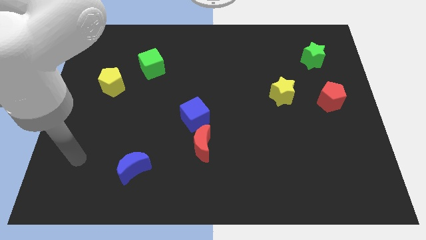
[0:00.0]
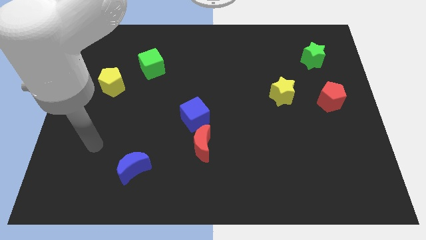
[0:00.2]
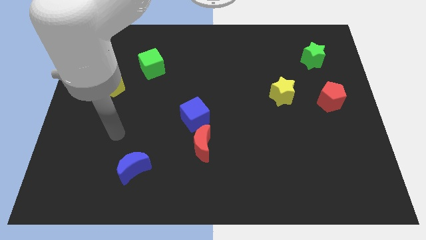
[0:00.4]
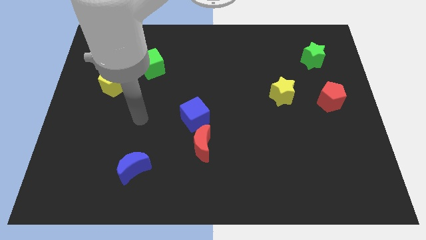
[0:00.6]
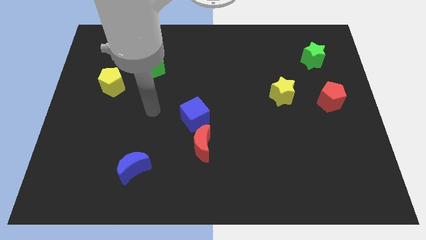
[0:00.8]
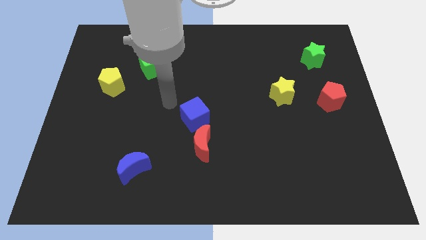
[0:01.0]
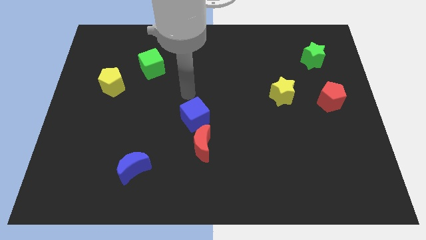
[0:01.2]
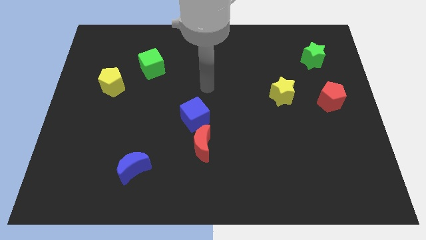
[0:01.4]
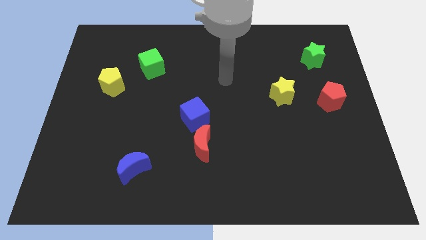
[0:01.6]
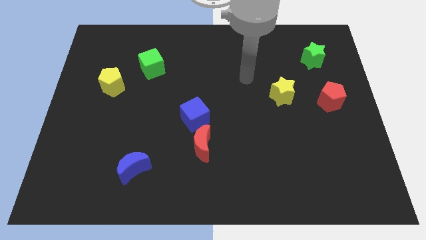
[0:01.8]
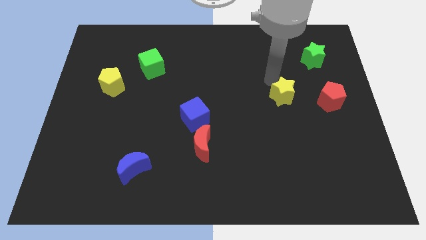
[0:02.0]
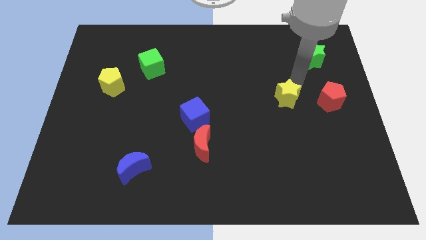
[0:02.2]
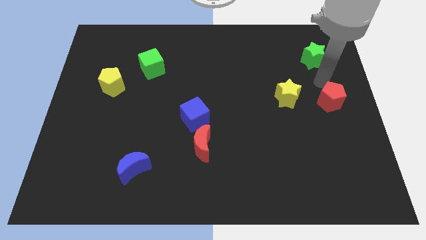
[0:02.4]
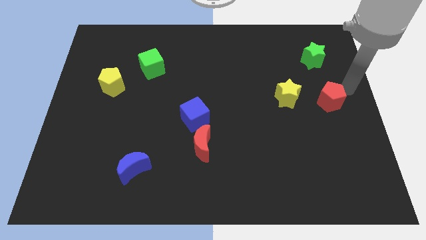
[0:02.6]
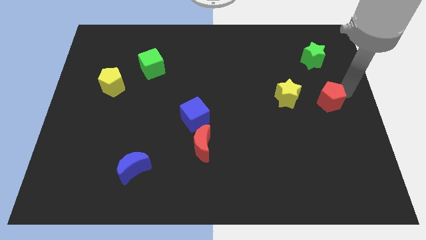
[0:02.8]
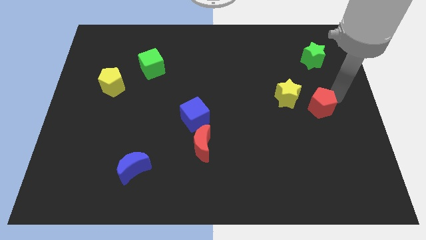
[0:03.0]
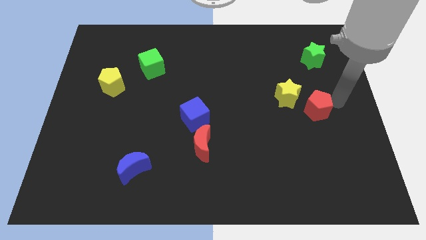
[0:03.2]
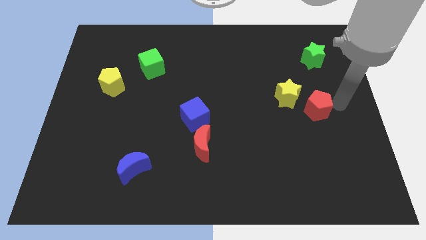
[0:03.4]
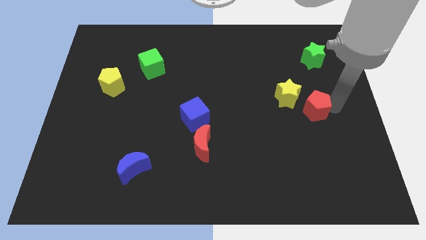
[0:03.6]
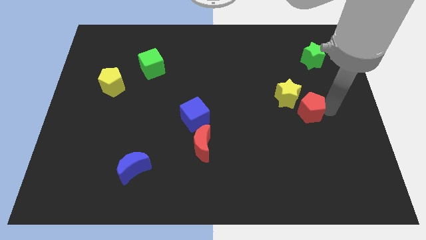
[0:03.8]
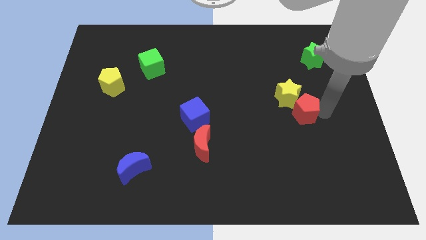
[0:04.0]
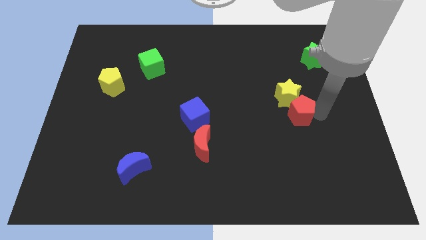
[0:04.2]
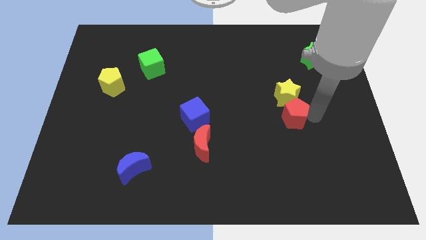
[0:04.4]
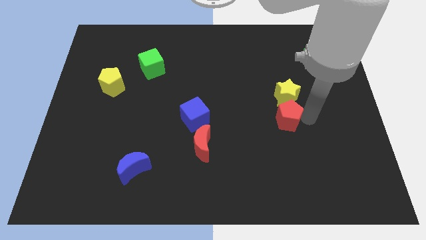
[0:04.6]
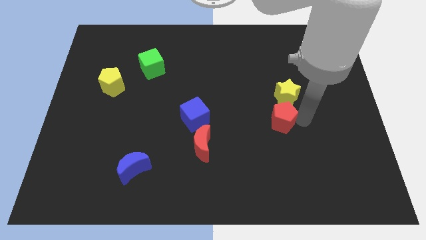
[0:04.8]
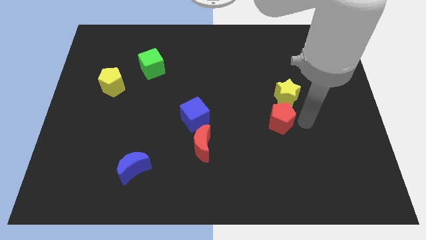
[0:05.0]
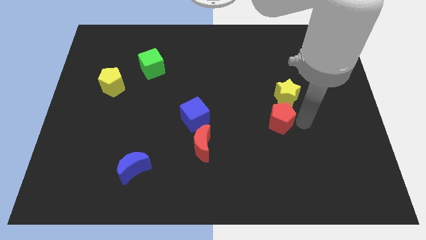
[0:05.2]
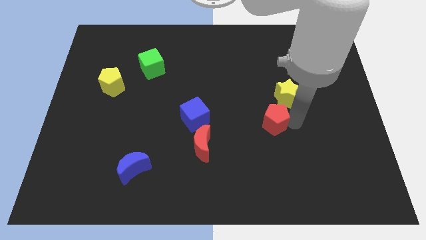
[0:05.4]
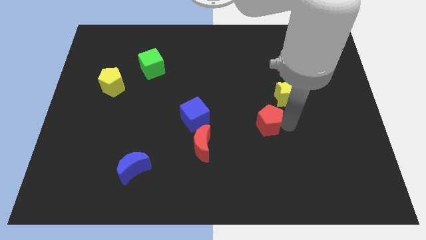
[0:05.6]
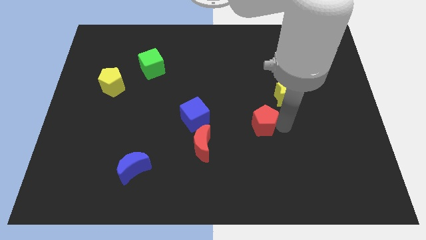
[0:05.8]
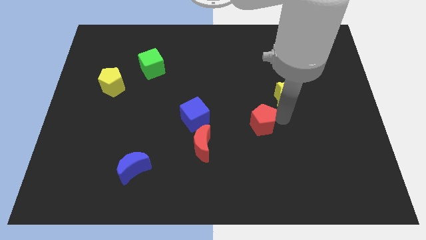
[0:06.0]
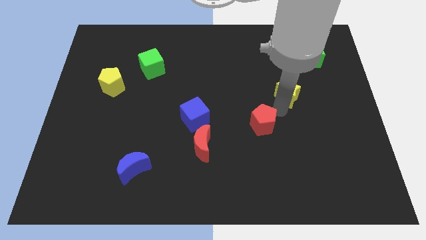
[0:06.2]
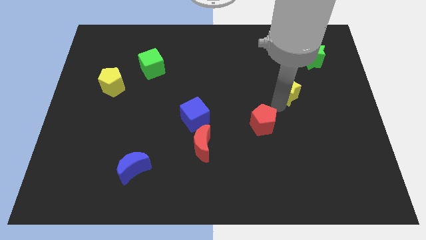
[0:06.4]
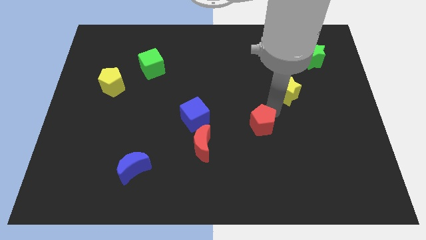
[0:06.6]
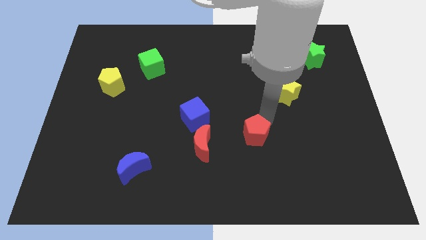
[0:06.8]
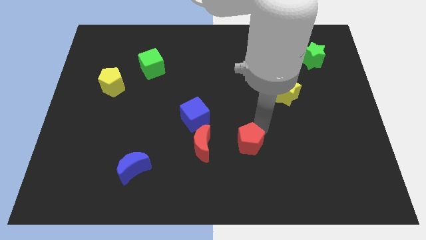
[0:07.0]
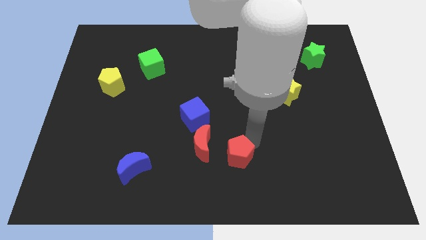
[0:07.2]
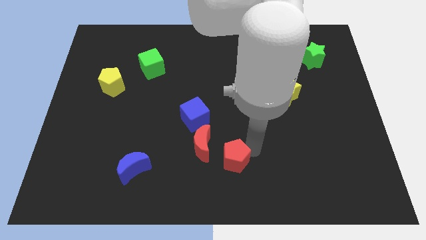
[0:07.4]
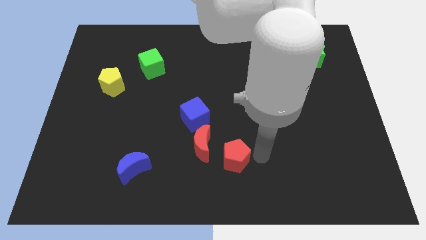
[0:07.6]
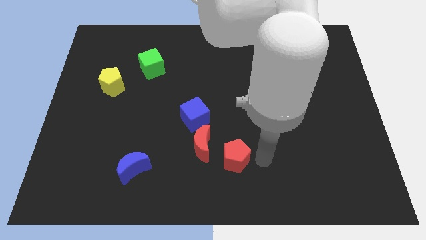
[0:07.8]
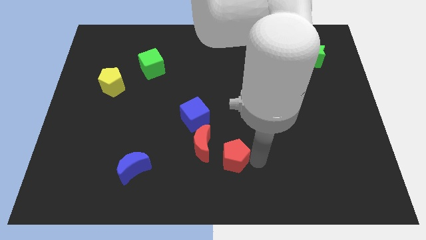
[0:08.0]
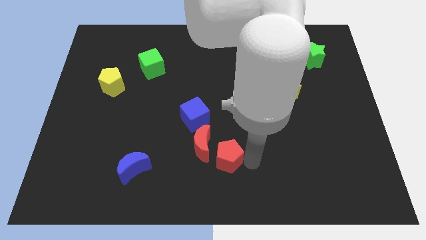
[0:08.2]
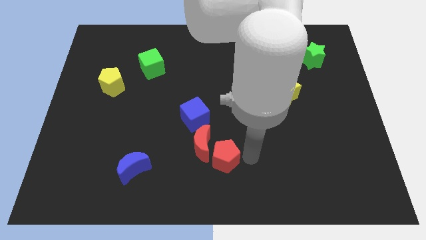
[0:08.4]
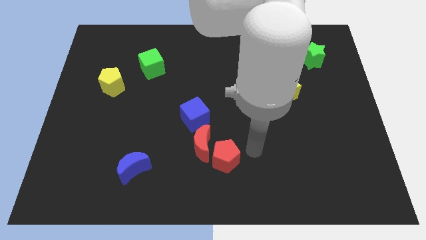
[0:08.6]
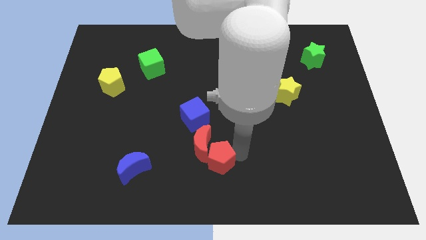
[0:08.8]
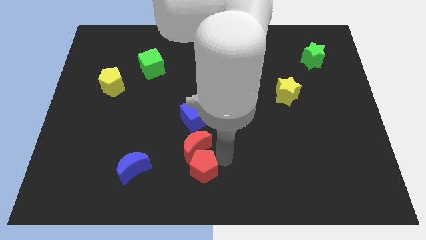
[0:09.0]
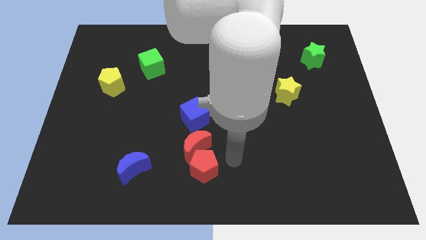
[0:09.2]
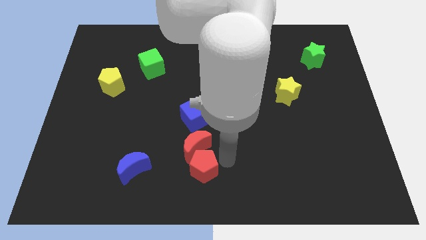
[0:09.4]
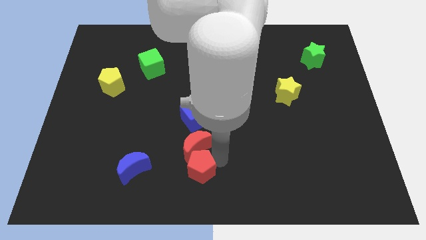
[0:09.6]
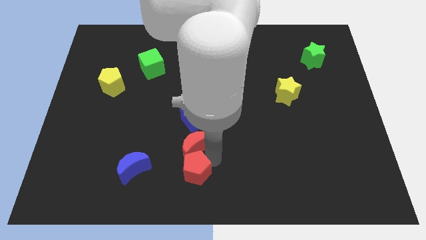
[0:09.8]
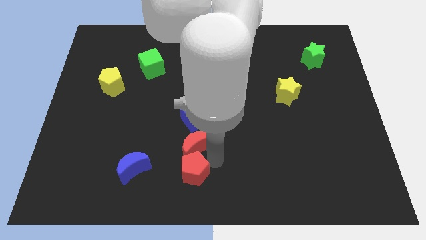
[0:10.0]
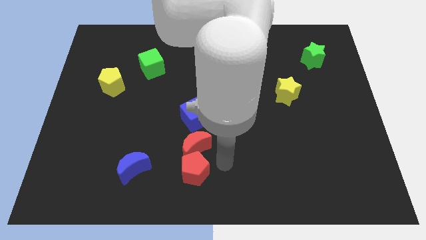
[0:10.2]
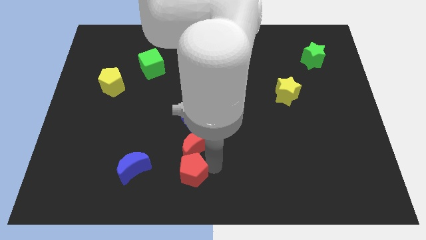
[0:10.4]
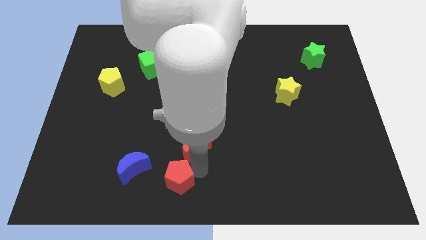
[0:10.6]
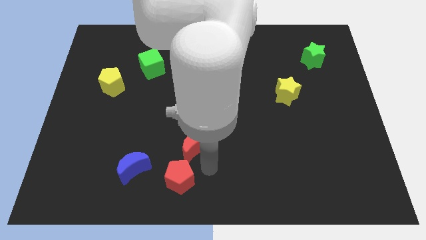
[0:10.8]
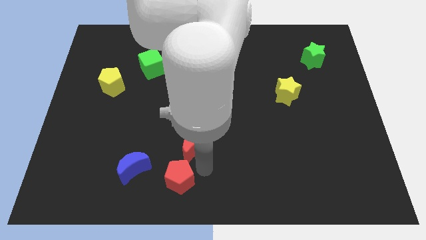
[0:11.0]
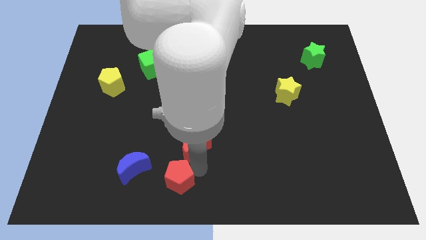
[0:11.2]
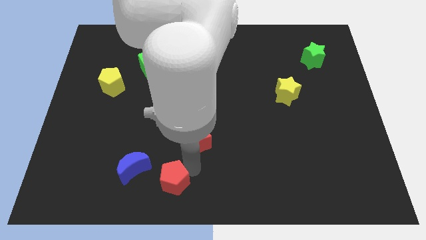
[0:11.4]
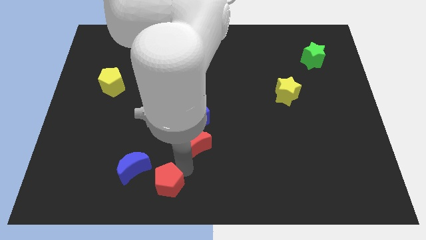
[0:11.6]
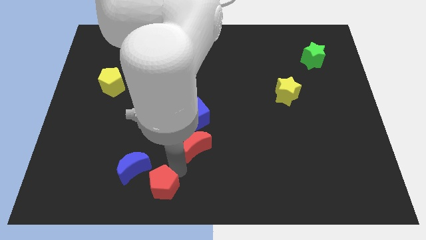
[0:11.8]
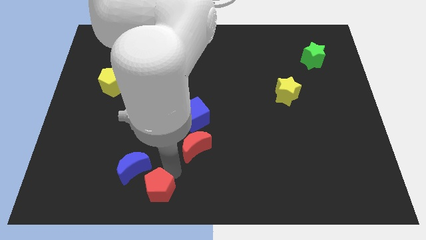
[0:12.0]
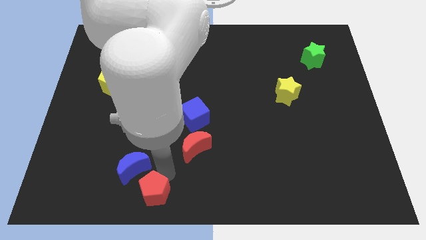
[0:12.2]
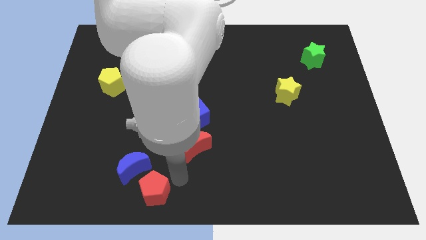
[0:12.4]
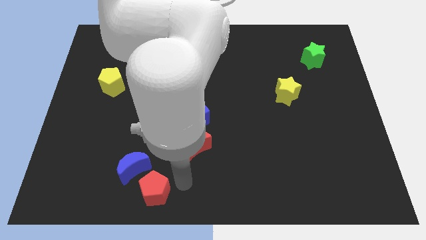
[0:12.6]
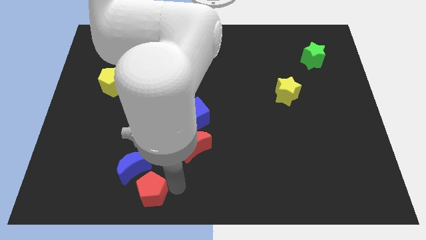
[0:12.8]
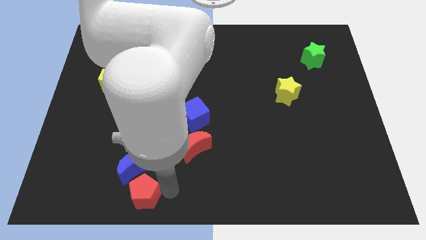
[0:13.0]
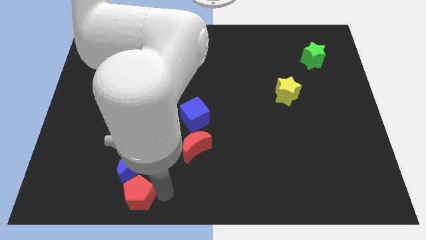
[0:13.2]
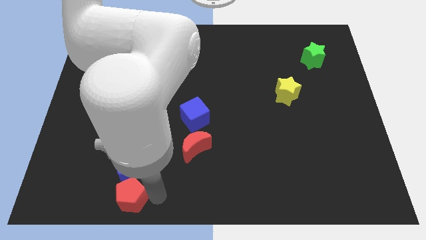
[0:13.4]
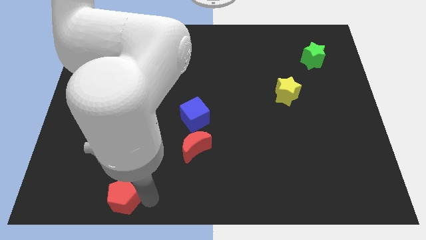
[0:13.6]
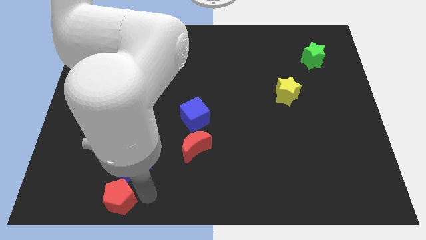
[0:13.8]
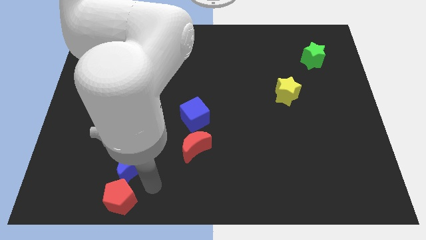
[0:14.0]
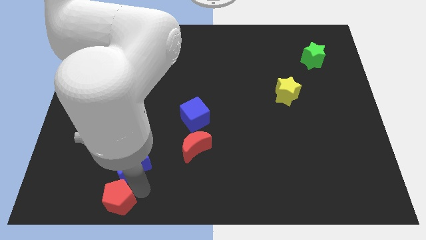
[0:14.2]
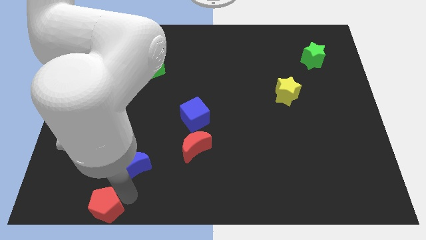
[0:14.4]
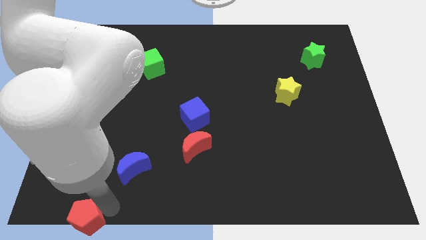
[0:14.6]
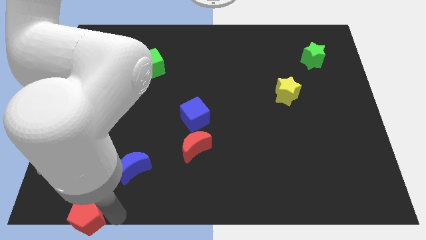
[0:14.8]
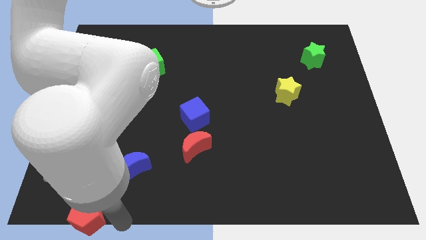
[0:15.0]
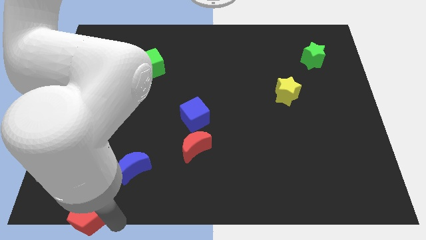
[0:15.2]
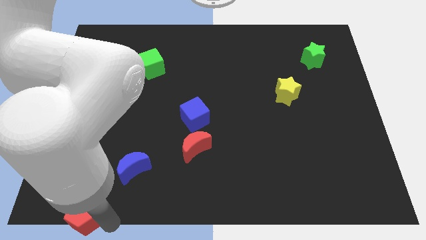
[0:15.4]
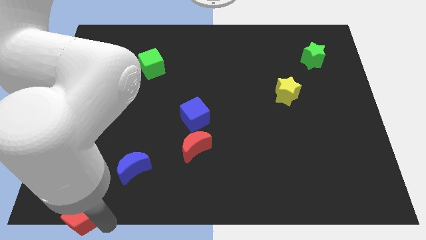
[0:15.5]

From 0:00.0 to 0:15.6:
move the red pentagon to the lower left corner
